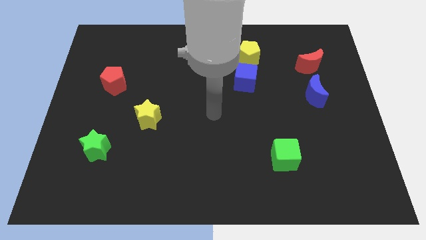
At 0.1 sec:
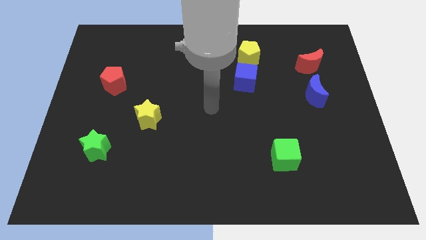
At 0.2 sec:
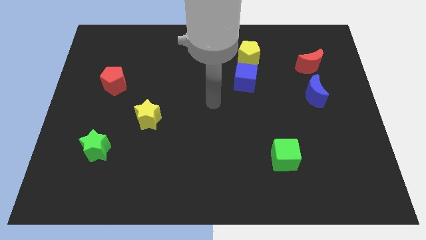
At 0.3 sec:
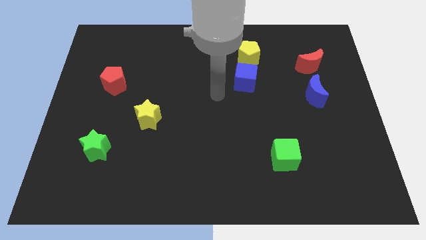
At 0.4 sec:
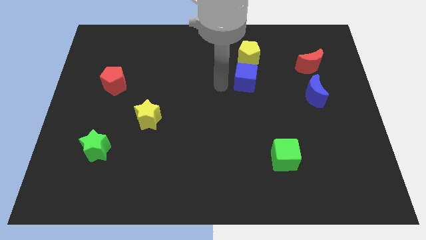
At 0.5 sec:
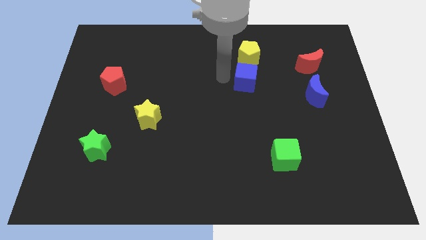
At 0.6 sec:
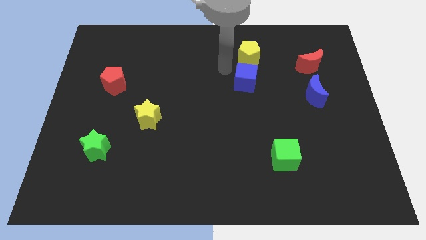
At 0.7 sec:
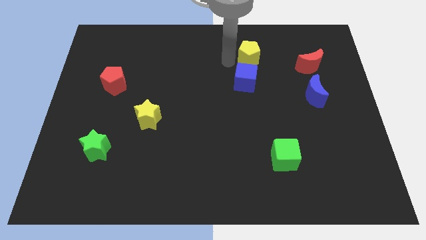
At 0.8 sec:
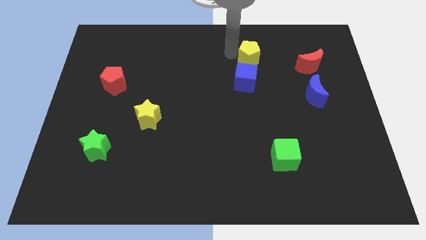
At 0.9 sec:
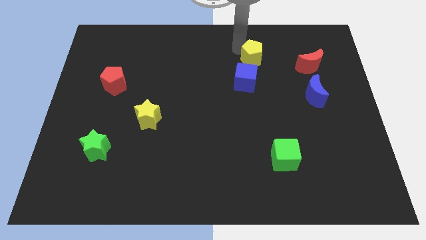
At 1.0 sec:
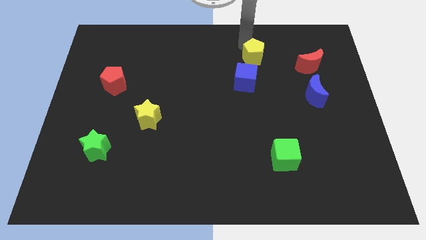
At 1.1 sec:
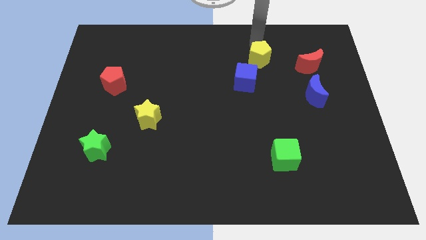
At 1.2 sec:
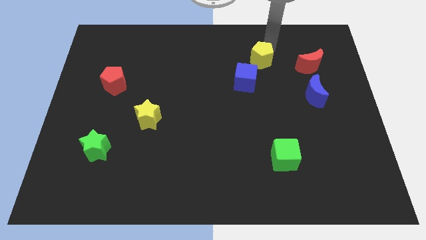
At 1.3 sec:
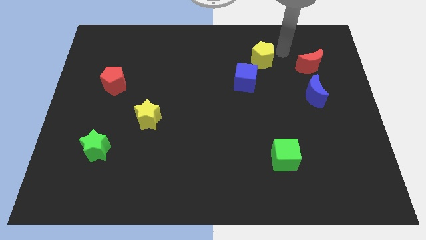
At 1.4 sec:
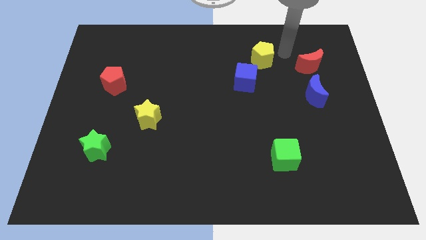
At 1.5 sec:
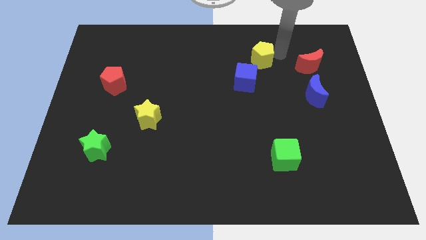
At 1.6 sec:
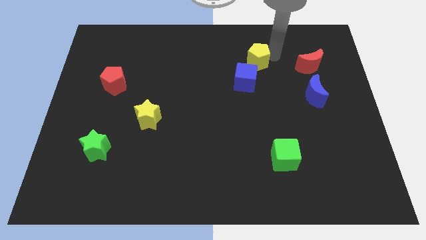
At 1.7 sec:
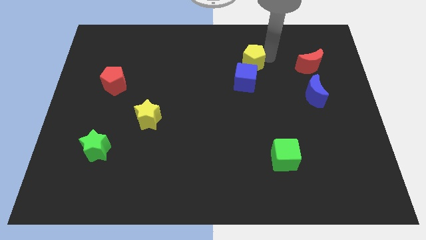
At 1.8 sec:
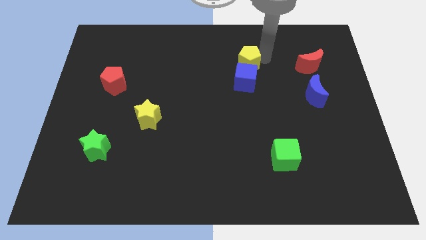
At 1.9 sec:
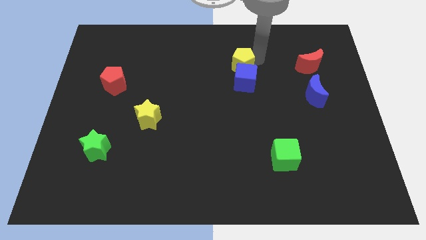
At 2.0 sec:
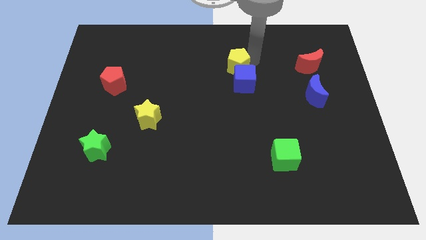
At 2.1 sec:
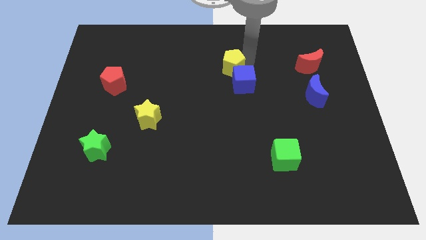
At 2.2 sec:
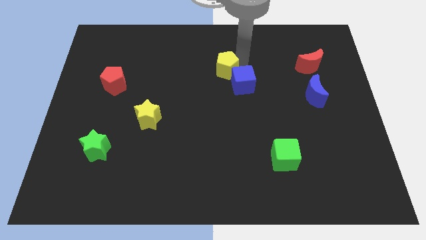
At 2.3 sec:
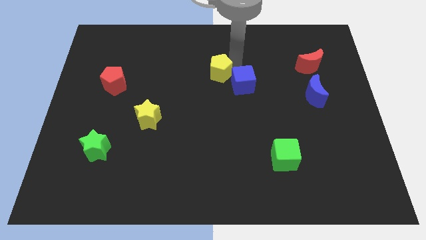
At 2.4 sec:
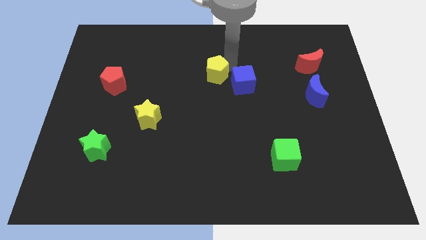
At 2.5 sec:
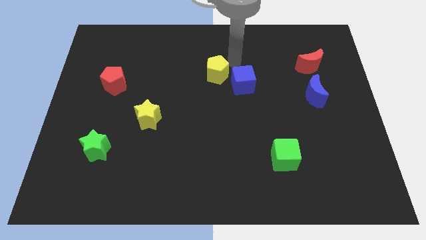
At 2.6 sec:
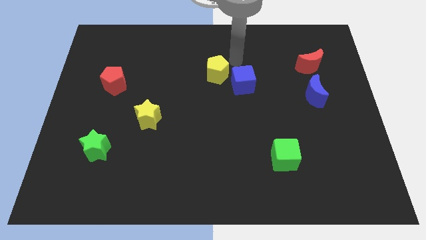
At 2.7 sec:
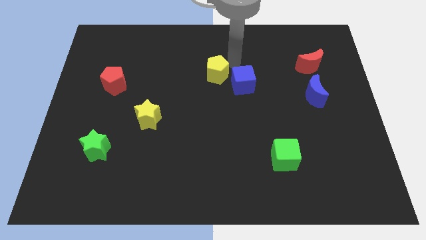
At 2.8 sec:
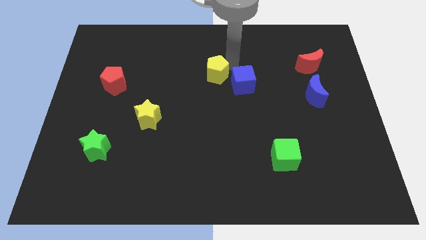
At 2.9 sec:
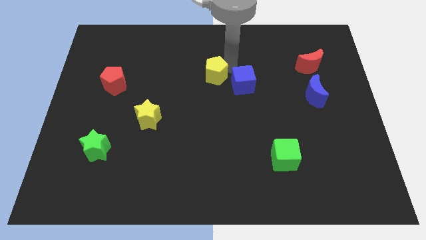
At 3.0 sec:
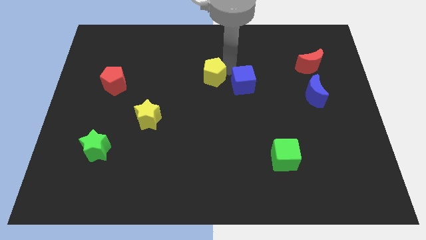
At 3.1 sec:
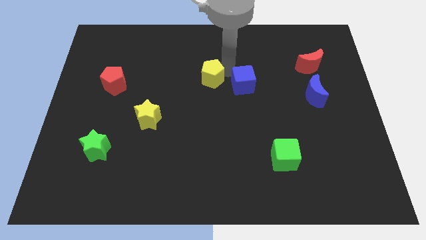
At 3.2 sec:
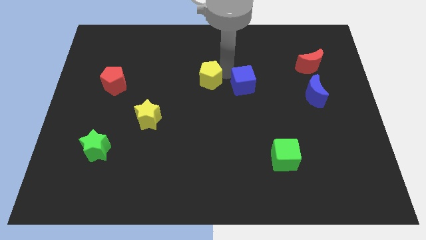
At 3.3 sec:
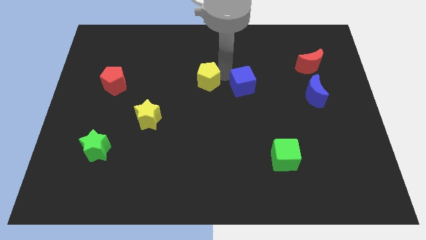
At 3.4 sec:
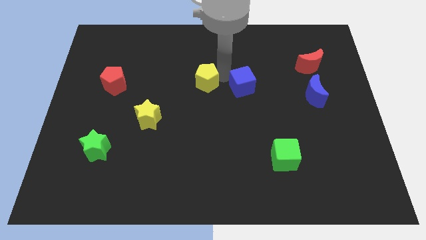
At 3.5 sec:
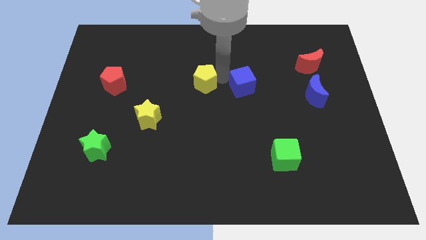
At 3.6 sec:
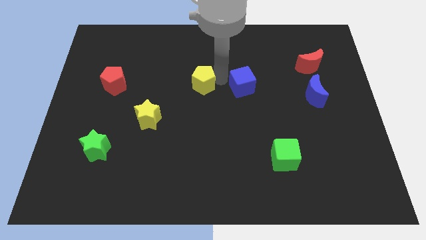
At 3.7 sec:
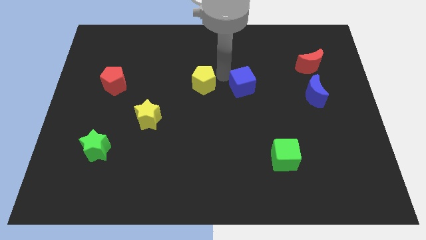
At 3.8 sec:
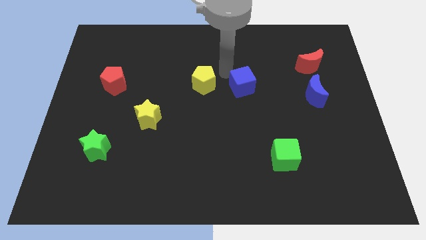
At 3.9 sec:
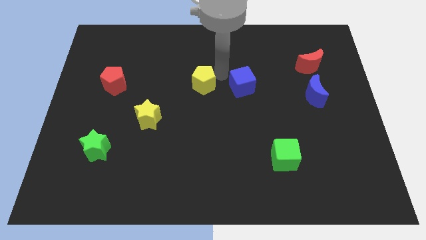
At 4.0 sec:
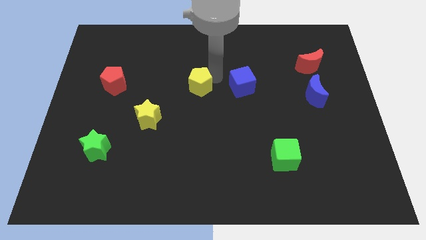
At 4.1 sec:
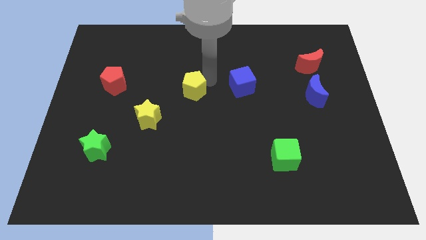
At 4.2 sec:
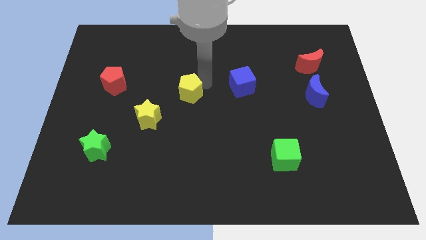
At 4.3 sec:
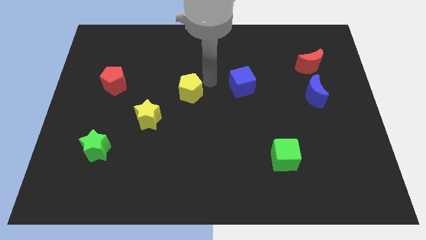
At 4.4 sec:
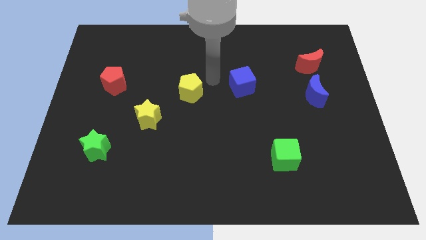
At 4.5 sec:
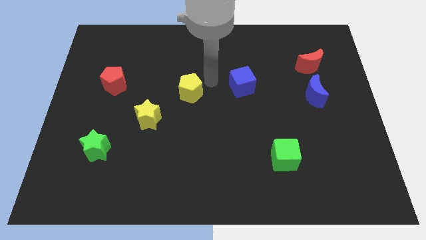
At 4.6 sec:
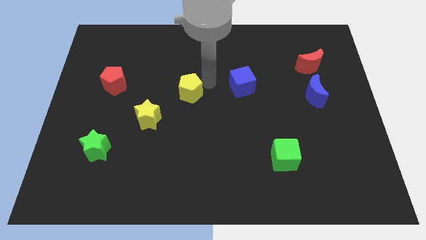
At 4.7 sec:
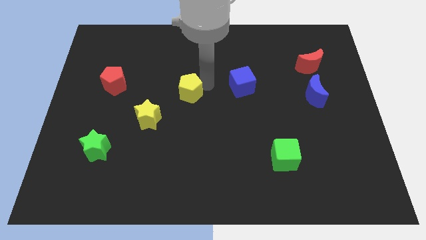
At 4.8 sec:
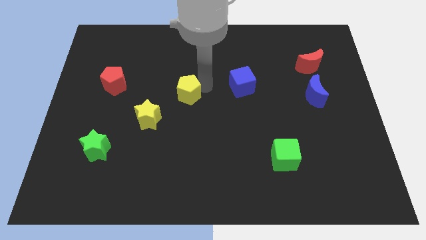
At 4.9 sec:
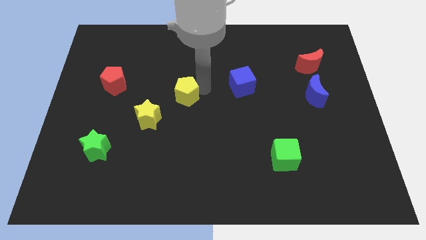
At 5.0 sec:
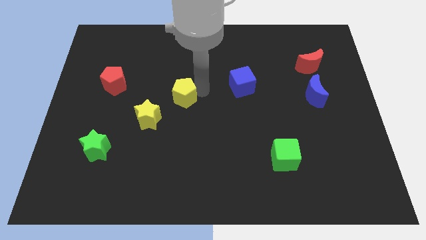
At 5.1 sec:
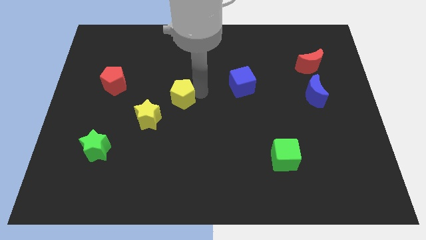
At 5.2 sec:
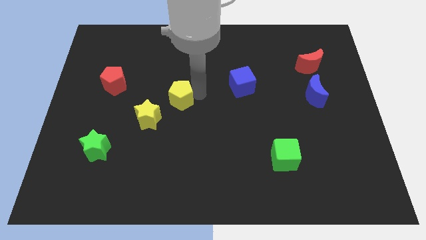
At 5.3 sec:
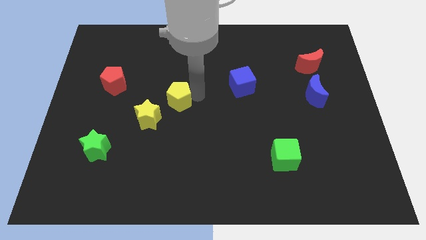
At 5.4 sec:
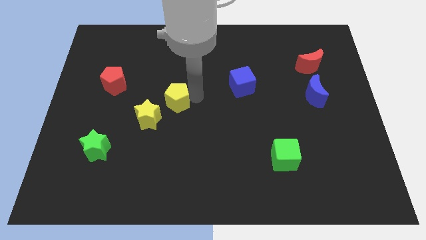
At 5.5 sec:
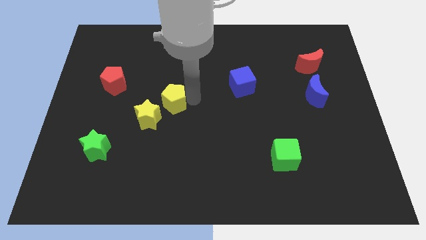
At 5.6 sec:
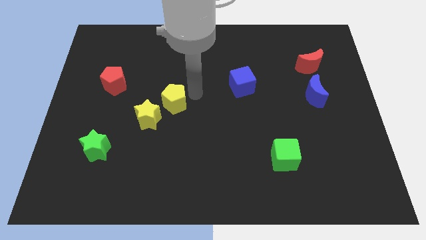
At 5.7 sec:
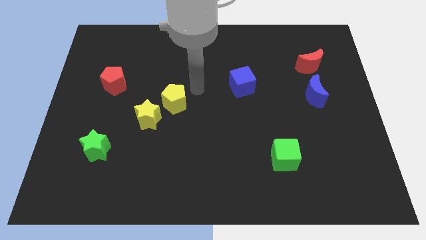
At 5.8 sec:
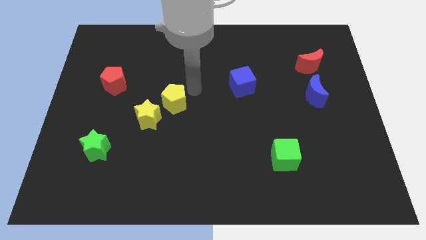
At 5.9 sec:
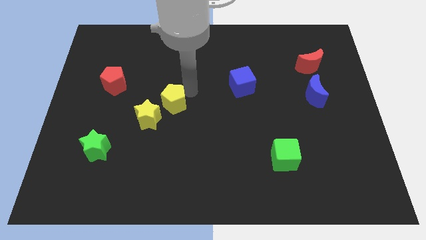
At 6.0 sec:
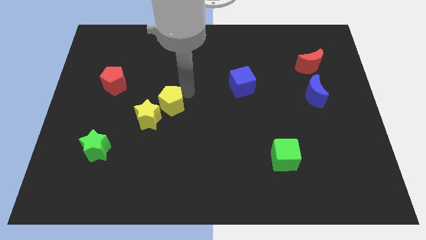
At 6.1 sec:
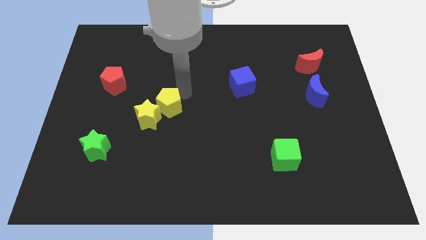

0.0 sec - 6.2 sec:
push the yellow pentagon towards the yellow star
